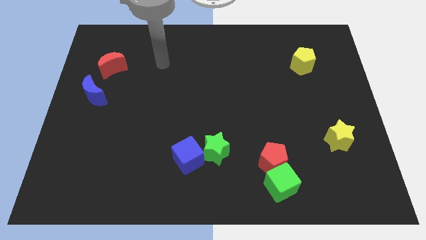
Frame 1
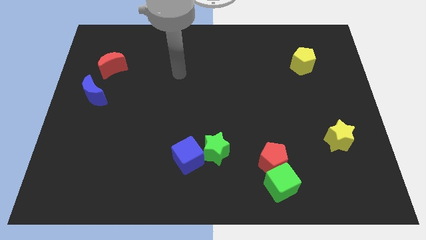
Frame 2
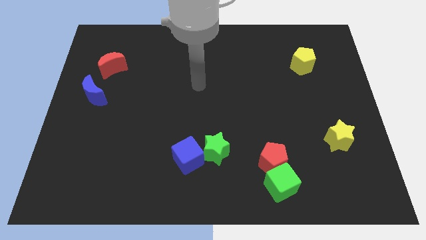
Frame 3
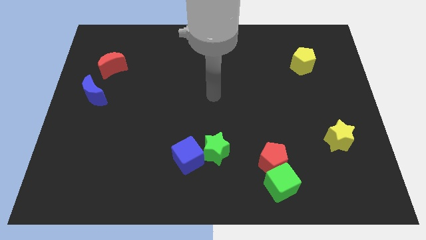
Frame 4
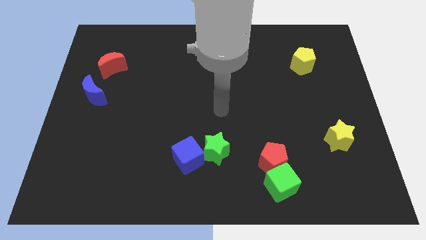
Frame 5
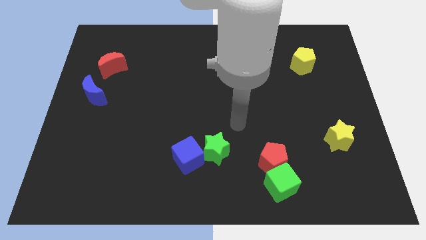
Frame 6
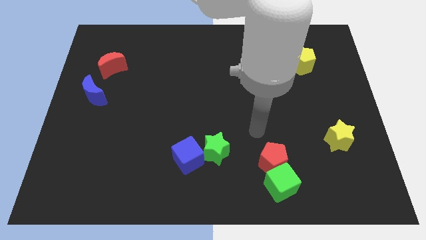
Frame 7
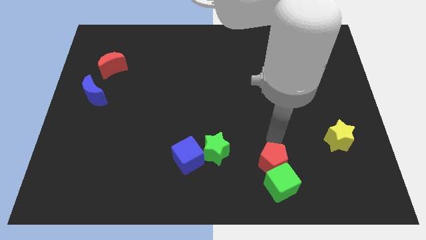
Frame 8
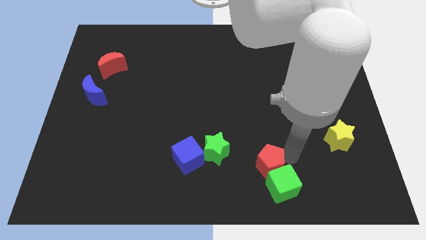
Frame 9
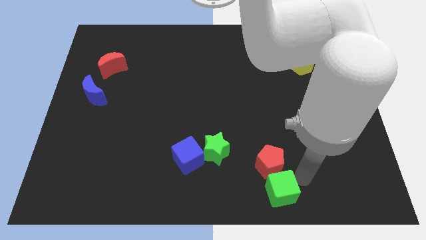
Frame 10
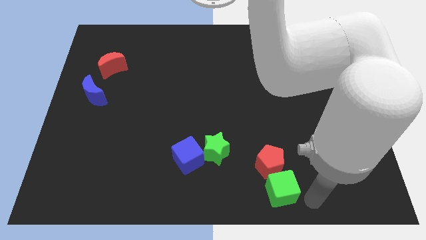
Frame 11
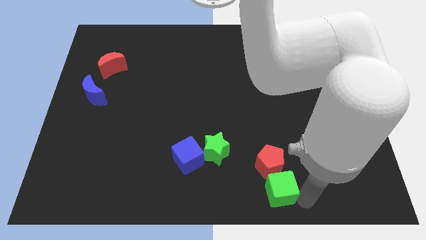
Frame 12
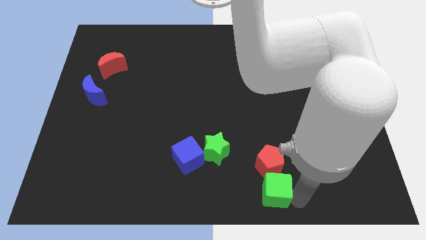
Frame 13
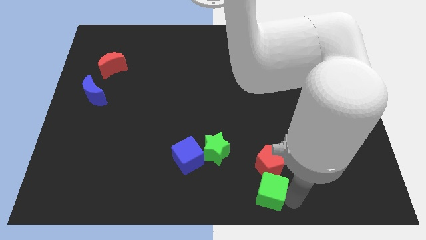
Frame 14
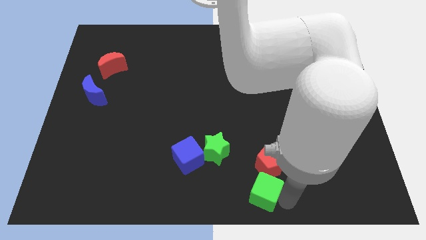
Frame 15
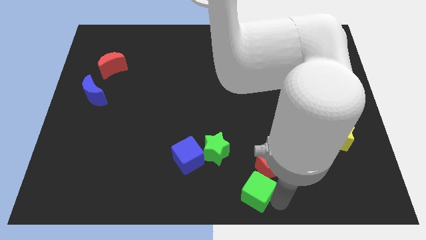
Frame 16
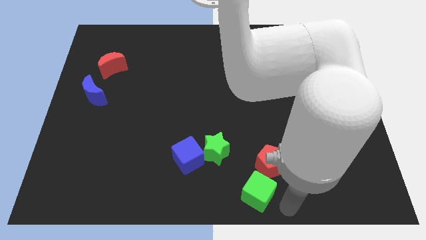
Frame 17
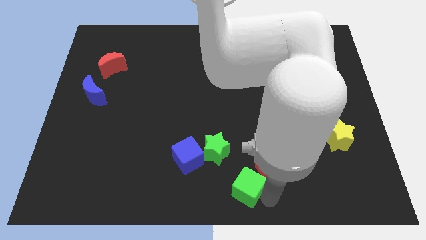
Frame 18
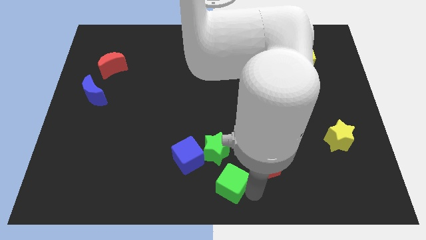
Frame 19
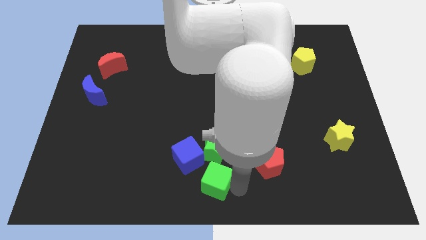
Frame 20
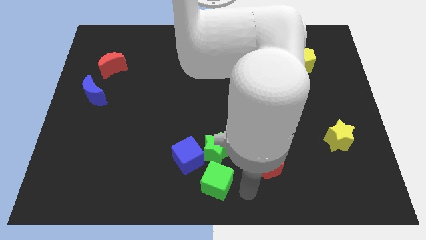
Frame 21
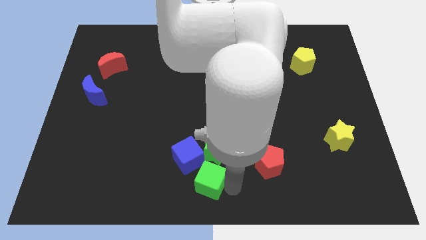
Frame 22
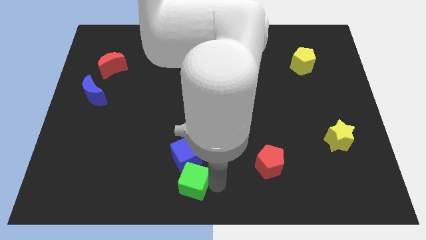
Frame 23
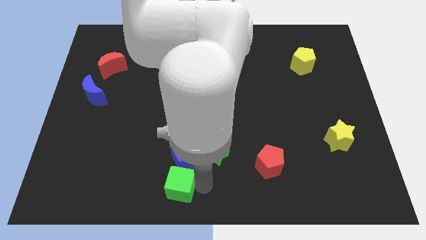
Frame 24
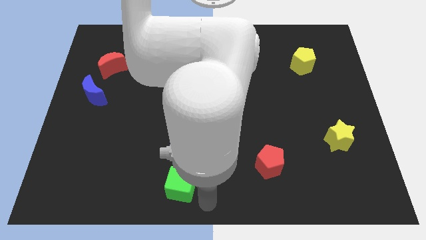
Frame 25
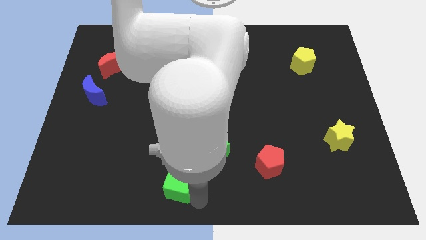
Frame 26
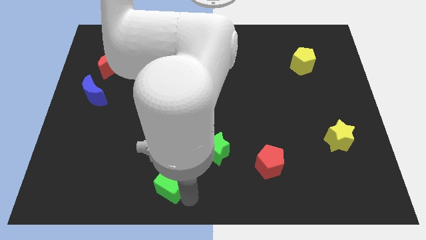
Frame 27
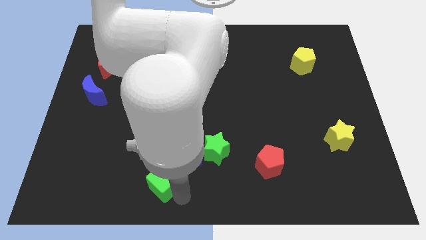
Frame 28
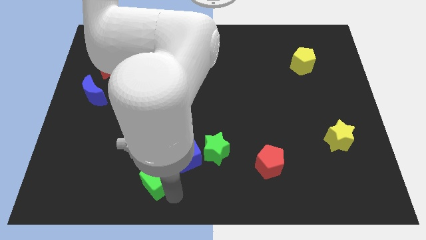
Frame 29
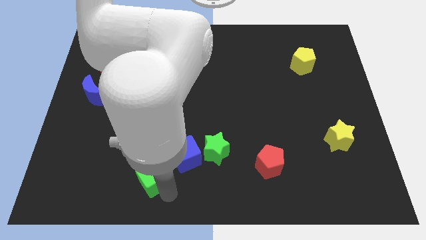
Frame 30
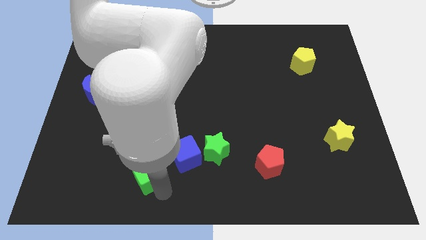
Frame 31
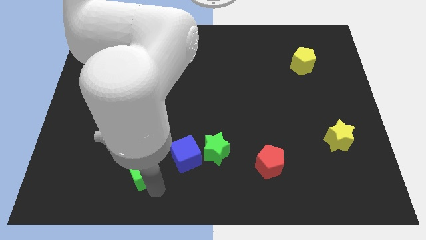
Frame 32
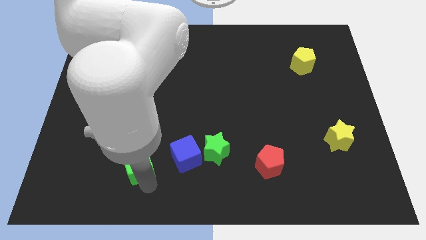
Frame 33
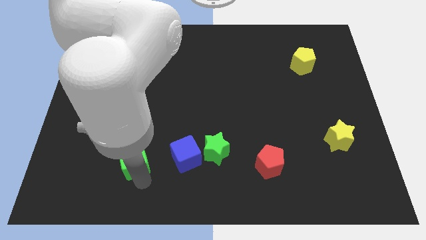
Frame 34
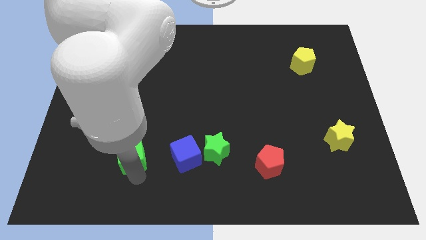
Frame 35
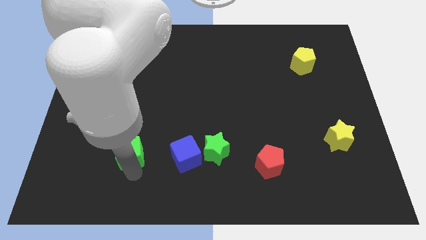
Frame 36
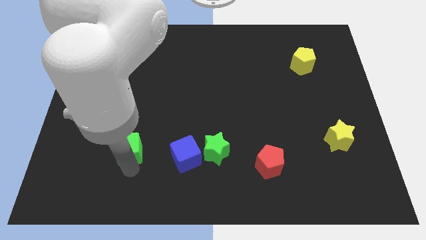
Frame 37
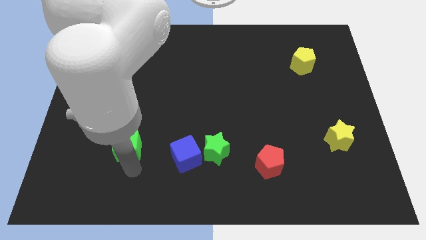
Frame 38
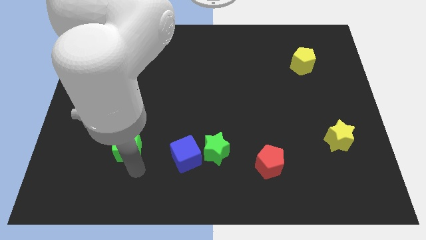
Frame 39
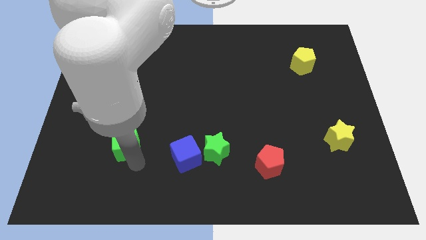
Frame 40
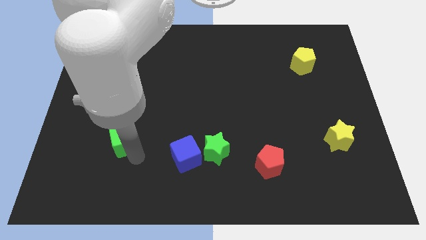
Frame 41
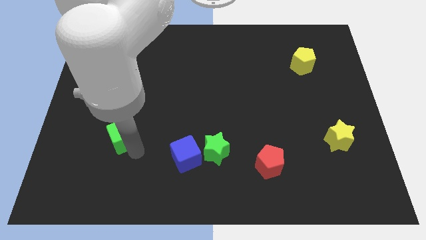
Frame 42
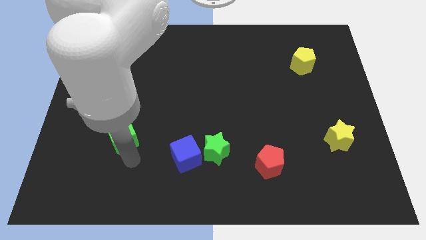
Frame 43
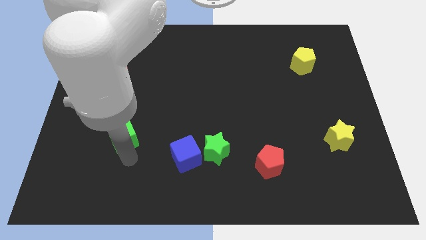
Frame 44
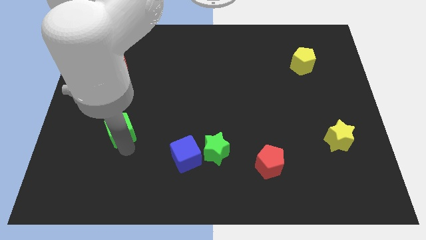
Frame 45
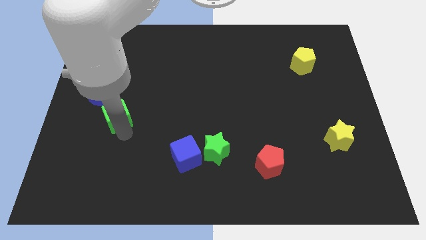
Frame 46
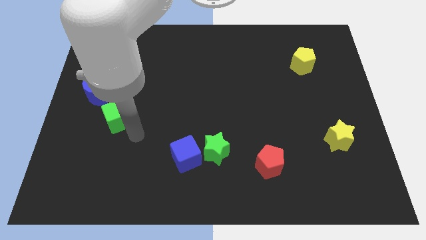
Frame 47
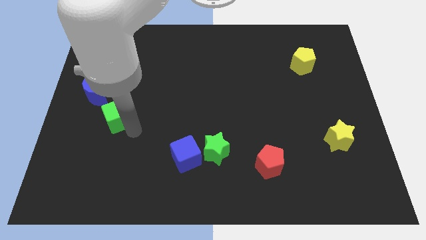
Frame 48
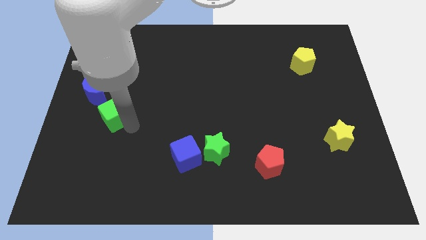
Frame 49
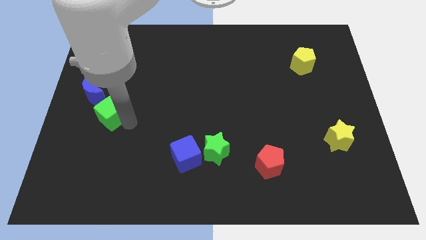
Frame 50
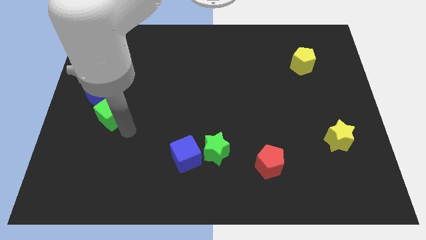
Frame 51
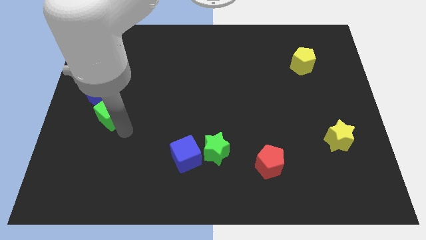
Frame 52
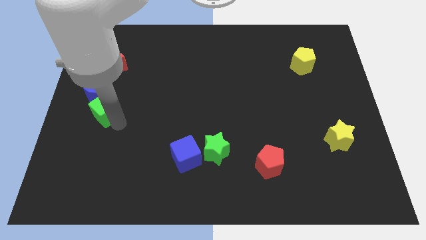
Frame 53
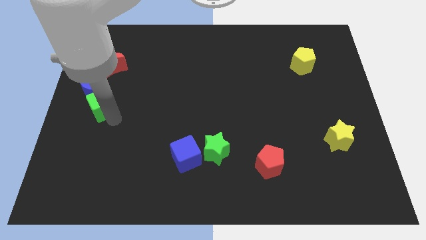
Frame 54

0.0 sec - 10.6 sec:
push the green cube next to the blue moon
